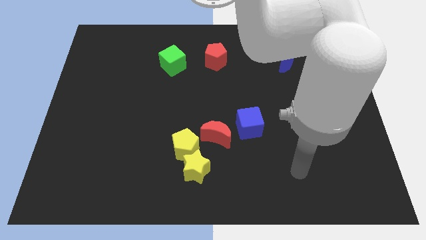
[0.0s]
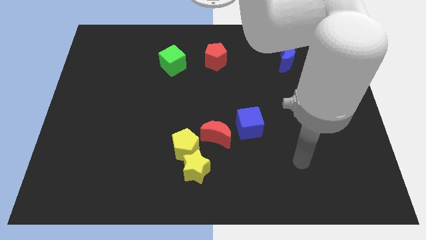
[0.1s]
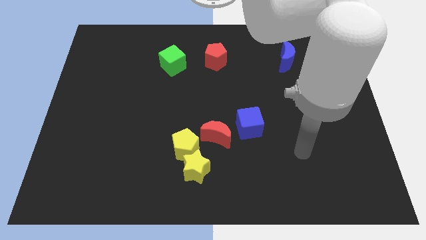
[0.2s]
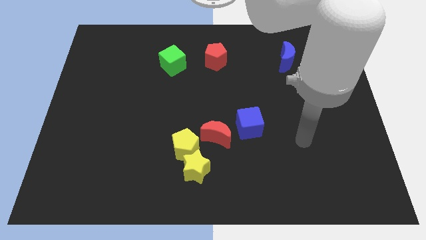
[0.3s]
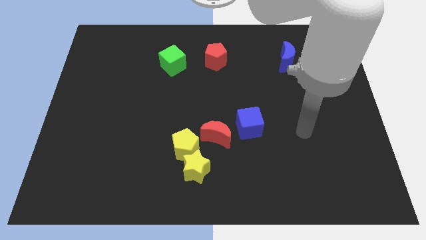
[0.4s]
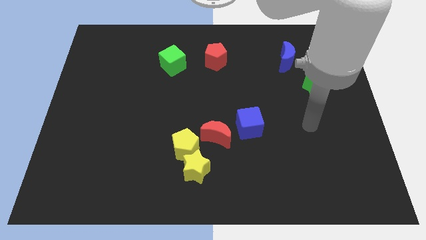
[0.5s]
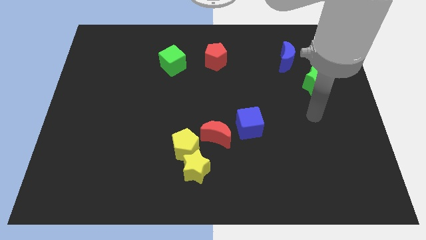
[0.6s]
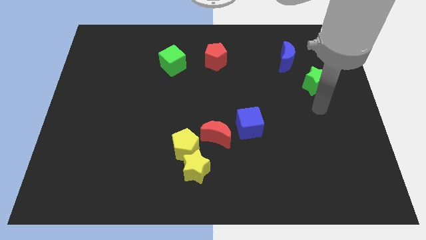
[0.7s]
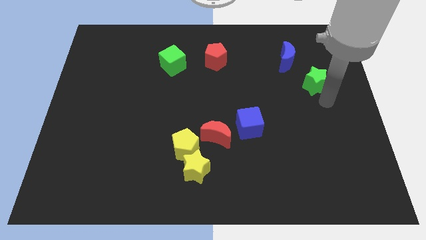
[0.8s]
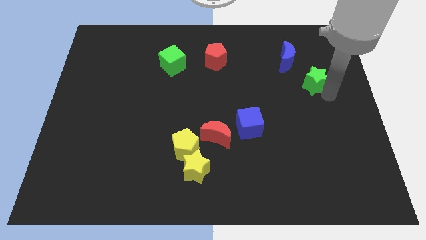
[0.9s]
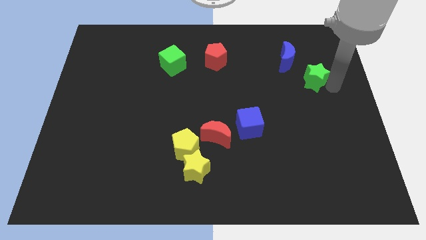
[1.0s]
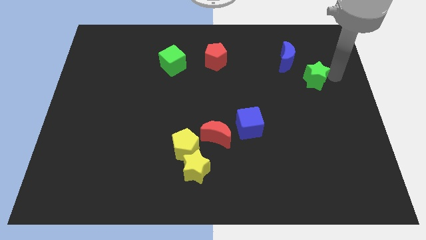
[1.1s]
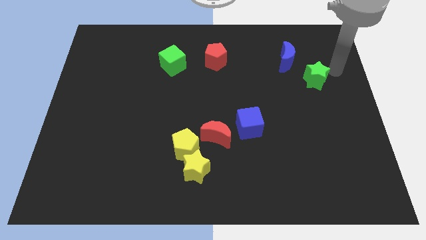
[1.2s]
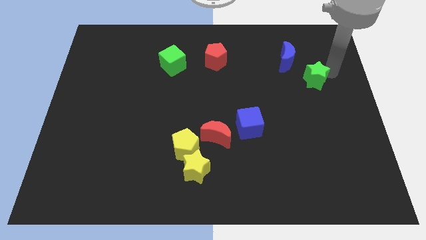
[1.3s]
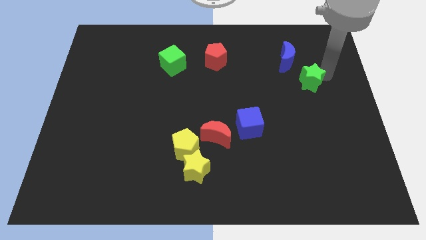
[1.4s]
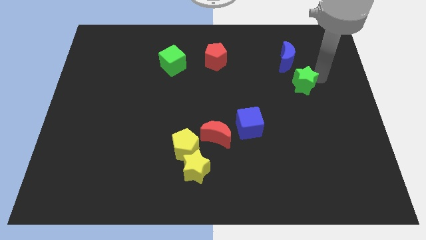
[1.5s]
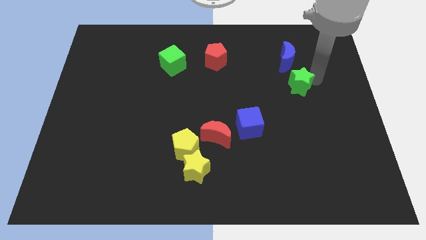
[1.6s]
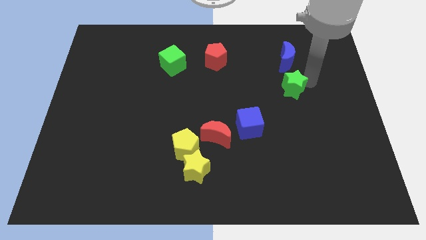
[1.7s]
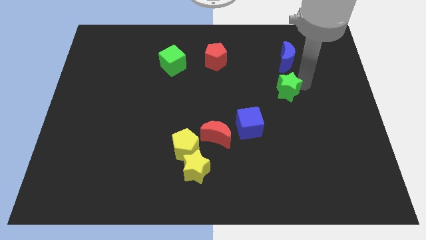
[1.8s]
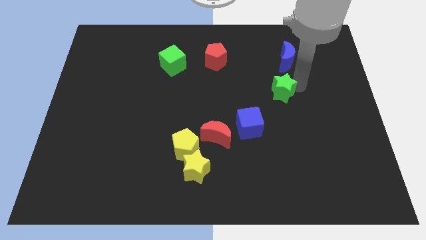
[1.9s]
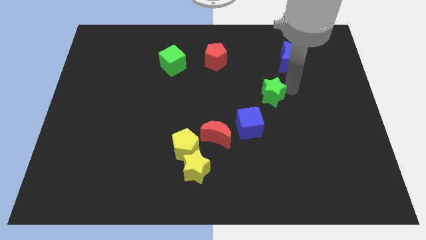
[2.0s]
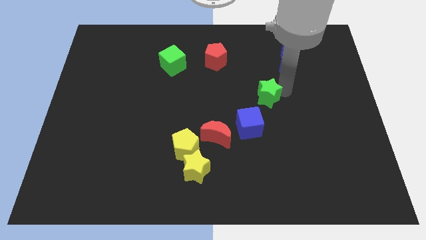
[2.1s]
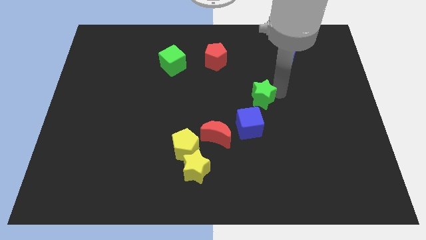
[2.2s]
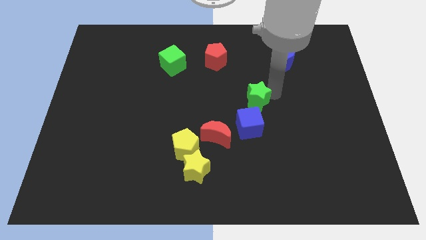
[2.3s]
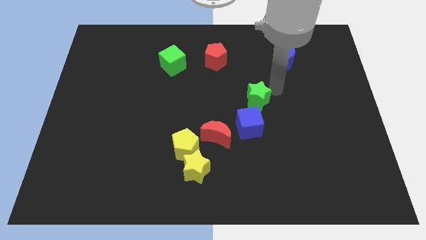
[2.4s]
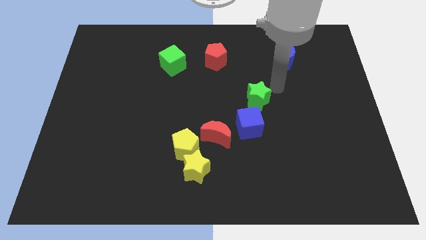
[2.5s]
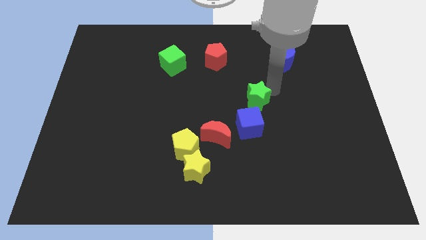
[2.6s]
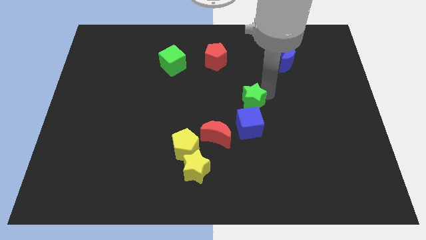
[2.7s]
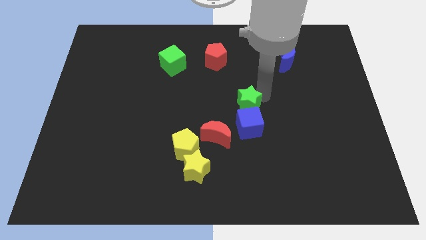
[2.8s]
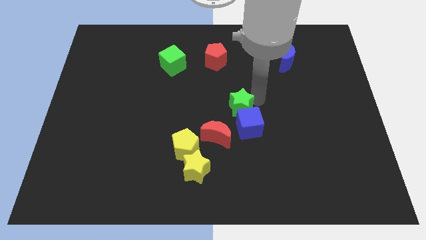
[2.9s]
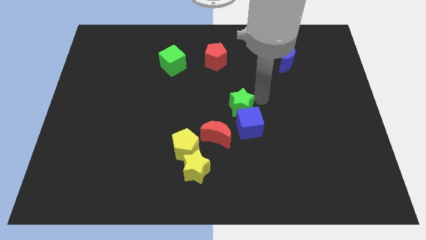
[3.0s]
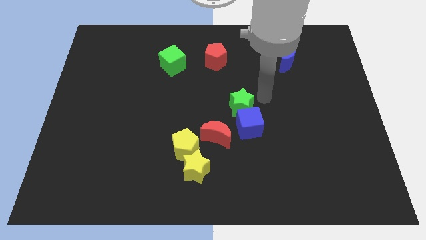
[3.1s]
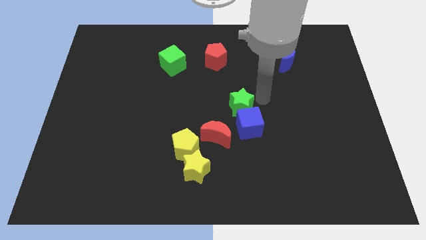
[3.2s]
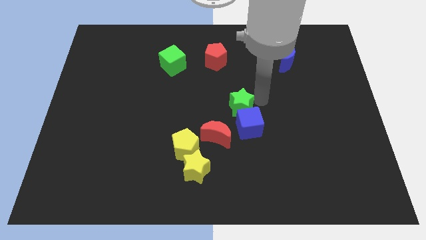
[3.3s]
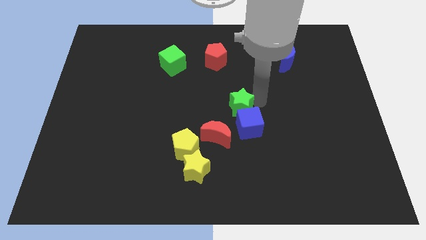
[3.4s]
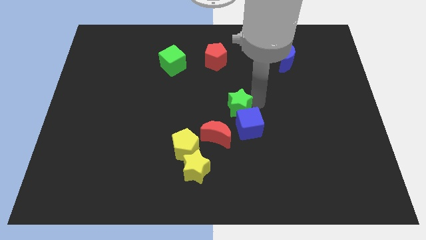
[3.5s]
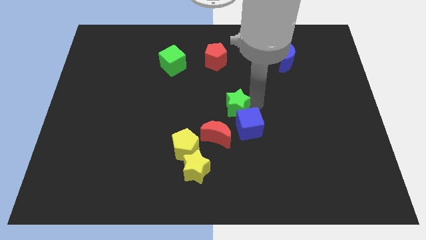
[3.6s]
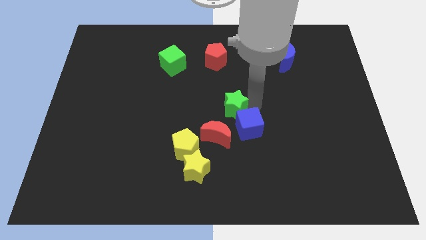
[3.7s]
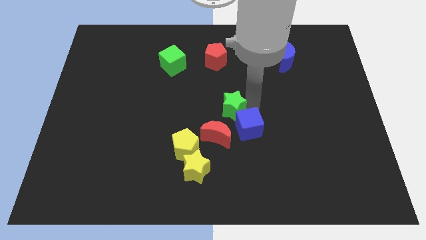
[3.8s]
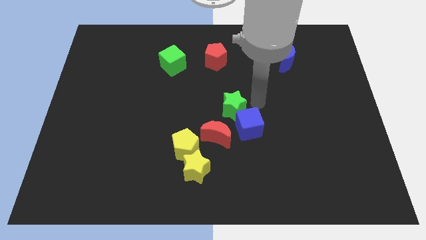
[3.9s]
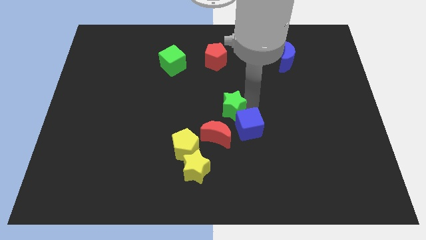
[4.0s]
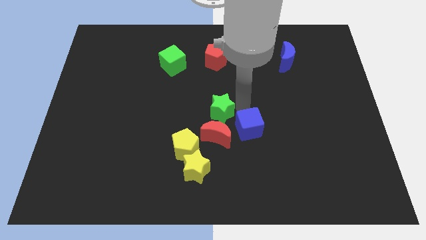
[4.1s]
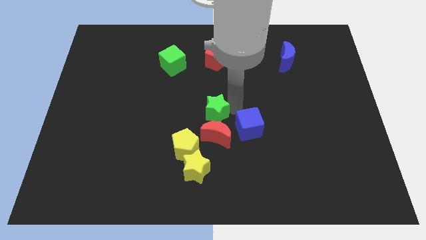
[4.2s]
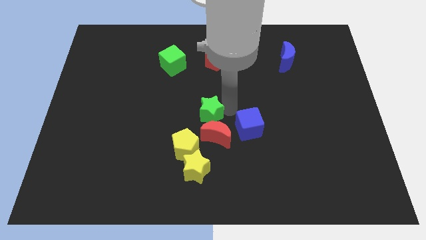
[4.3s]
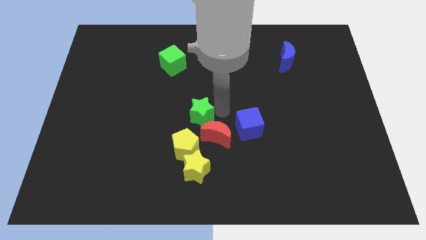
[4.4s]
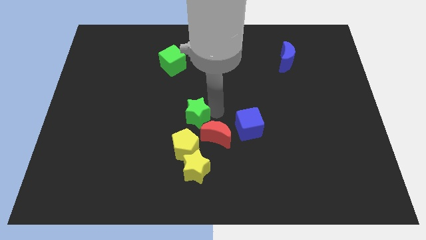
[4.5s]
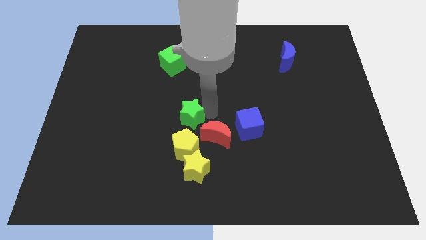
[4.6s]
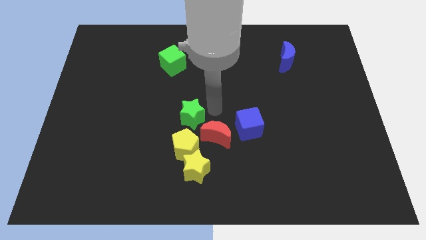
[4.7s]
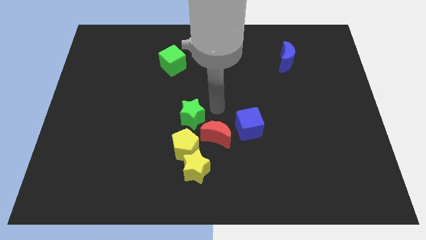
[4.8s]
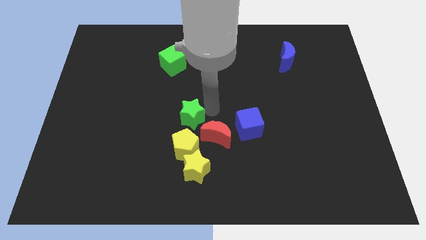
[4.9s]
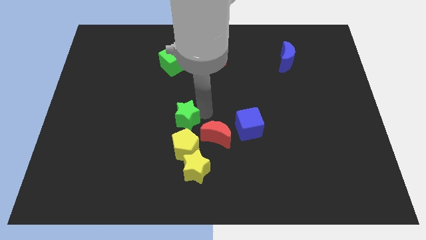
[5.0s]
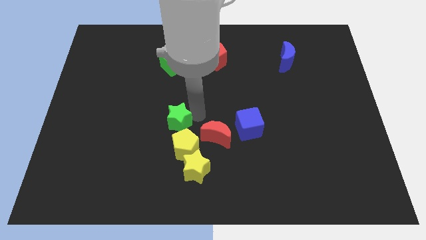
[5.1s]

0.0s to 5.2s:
move the green star to the top left side of the yellow pentagon

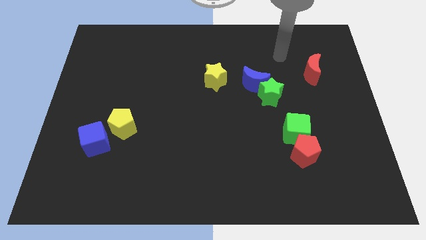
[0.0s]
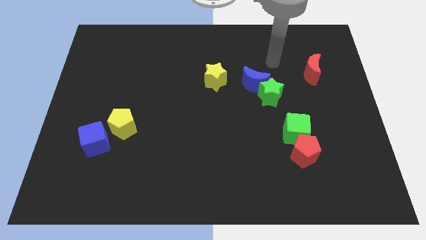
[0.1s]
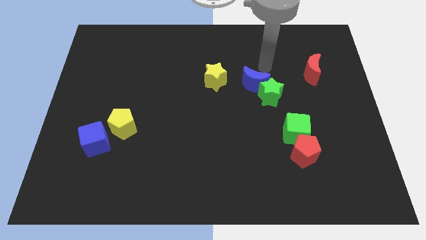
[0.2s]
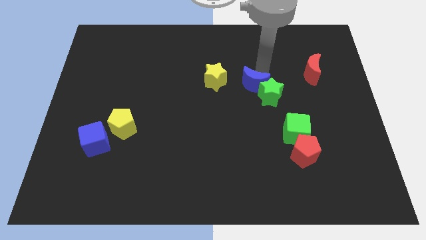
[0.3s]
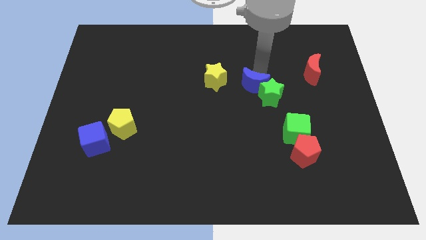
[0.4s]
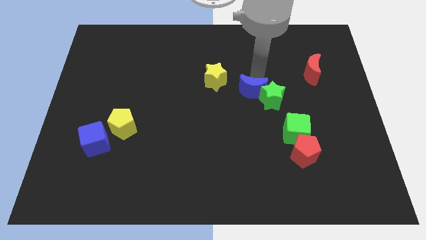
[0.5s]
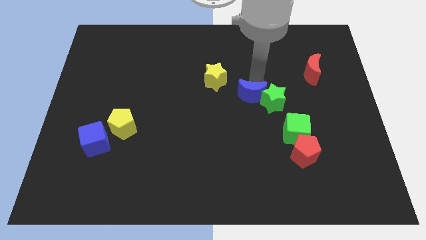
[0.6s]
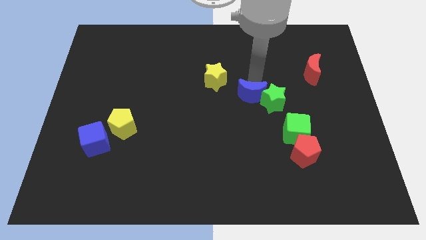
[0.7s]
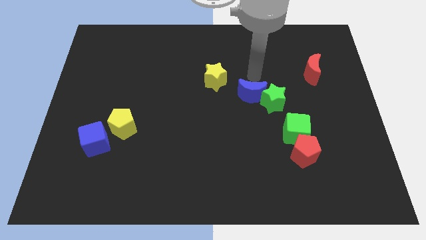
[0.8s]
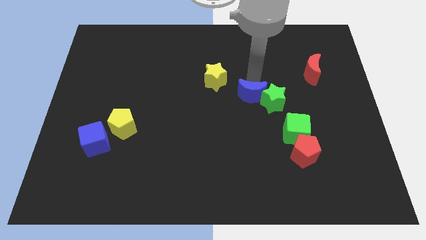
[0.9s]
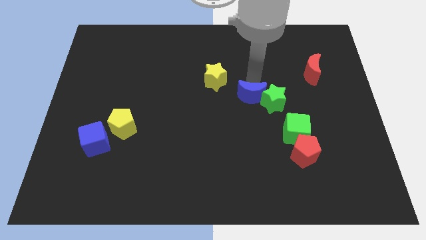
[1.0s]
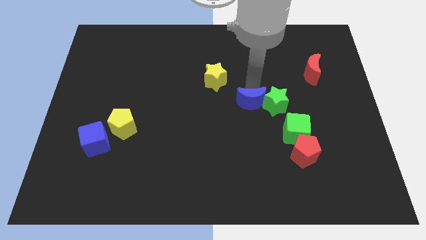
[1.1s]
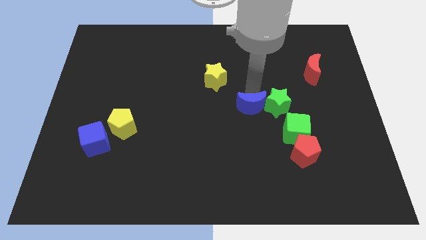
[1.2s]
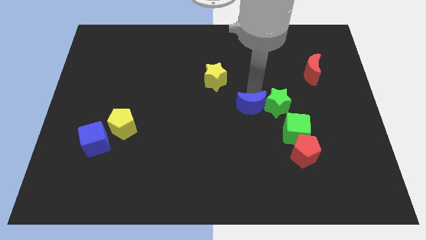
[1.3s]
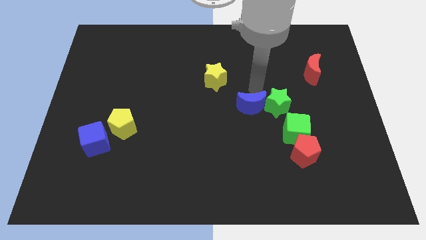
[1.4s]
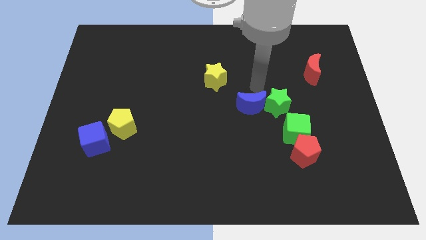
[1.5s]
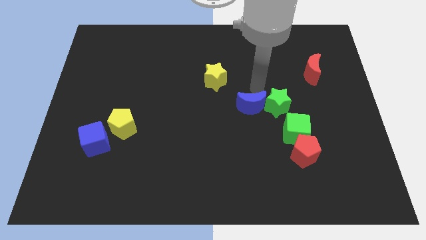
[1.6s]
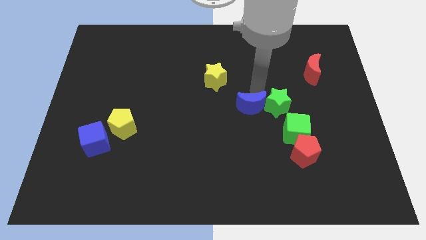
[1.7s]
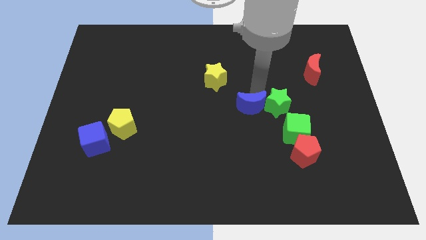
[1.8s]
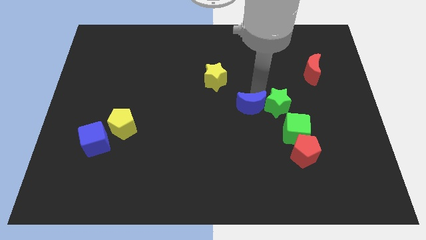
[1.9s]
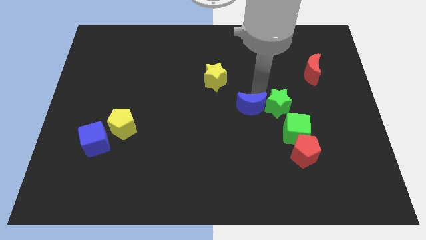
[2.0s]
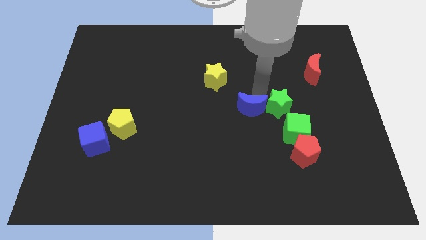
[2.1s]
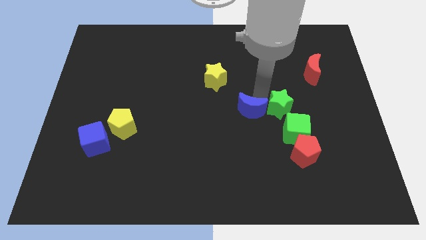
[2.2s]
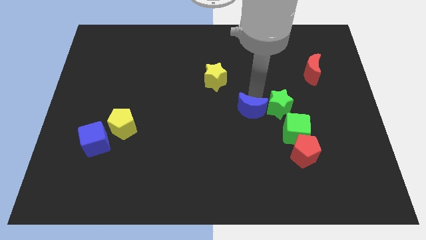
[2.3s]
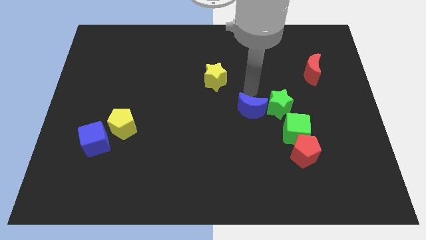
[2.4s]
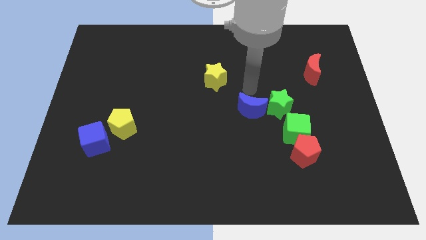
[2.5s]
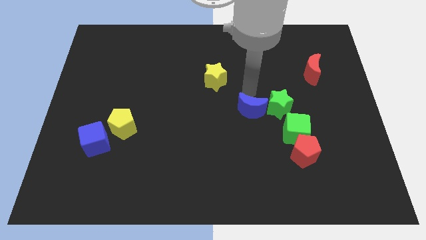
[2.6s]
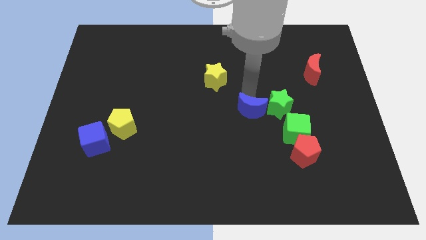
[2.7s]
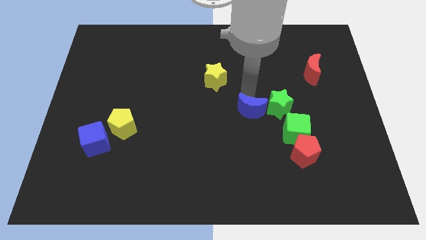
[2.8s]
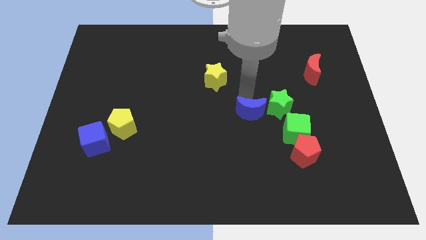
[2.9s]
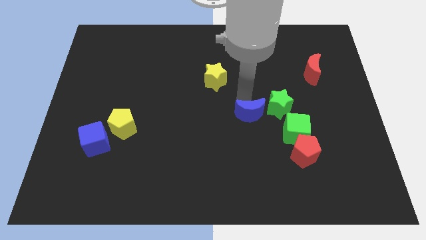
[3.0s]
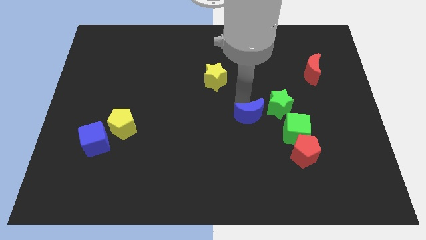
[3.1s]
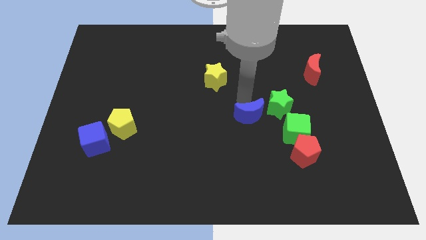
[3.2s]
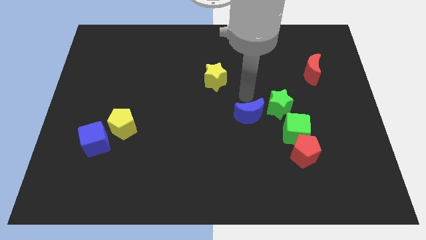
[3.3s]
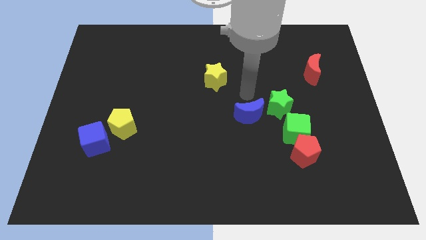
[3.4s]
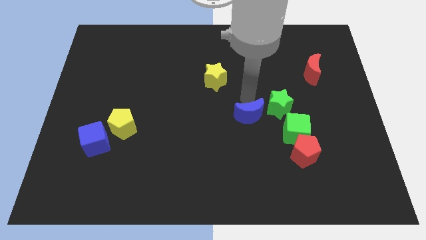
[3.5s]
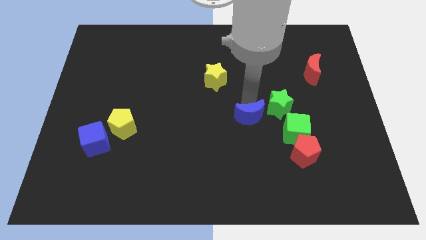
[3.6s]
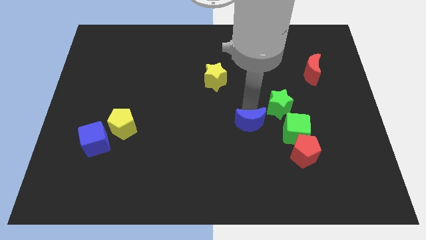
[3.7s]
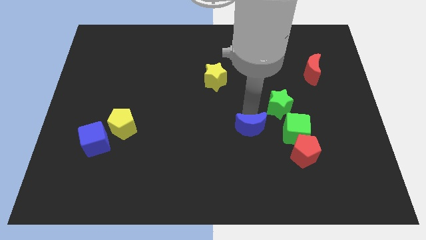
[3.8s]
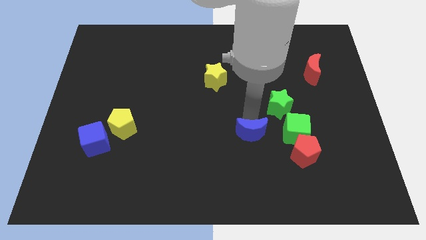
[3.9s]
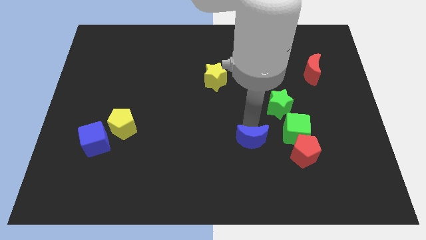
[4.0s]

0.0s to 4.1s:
put the blue moon to the left of the red pentagon
